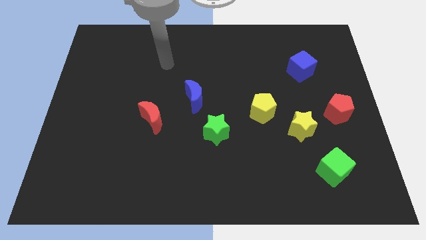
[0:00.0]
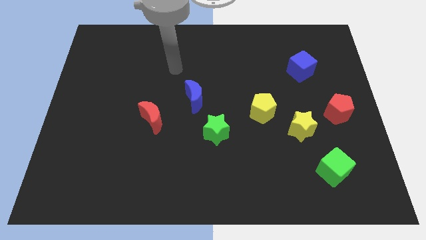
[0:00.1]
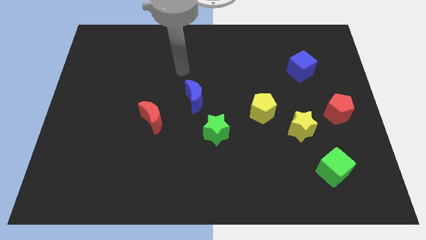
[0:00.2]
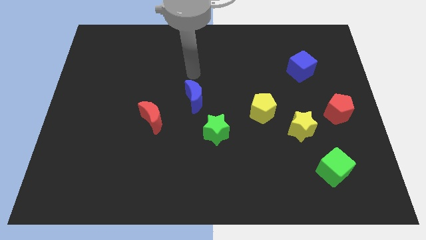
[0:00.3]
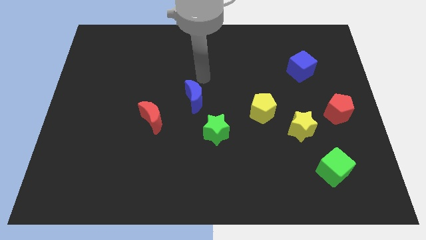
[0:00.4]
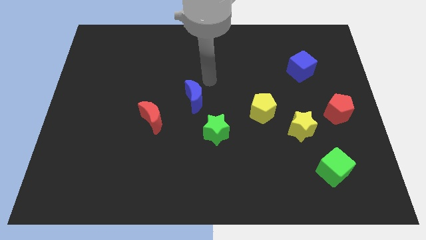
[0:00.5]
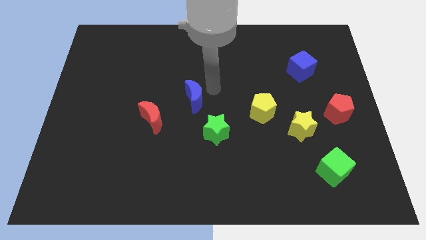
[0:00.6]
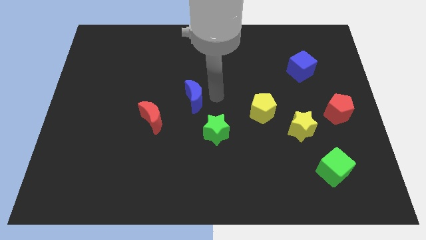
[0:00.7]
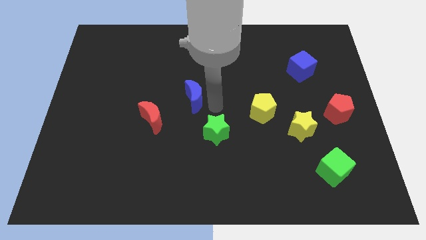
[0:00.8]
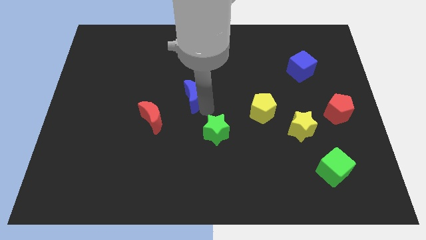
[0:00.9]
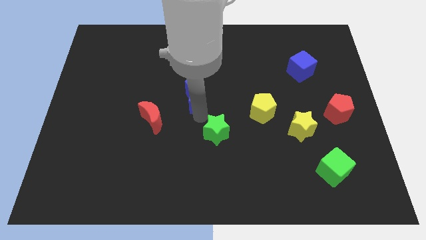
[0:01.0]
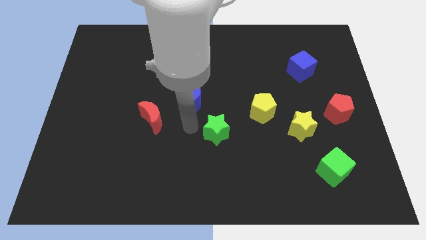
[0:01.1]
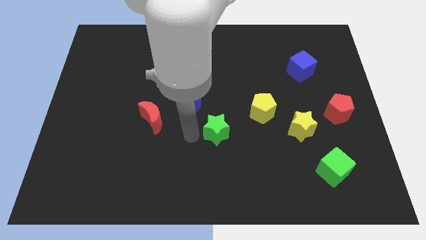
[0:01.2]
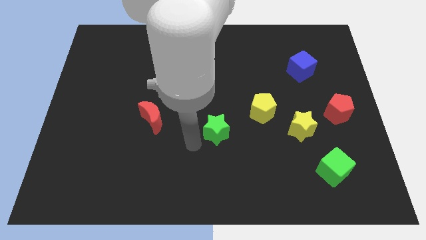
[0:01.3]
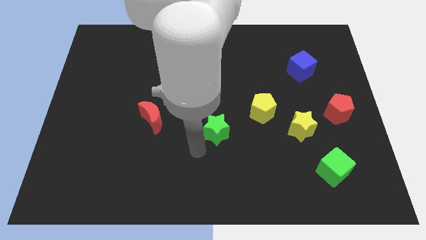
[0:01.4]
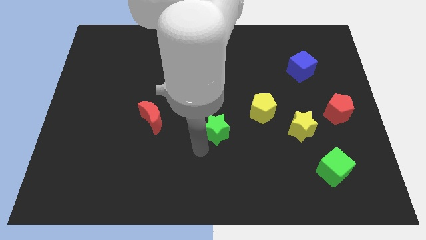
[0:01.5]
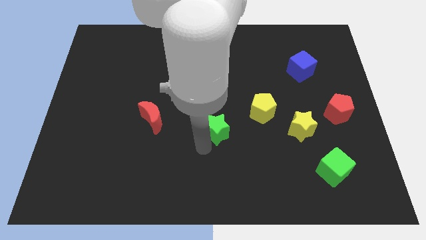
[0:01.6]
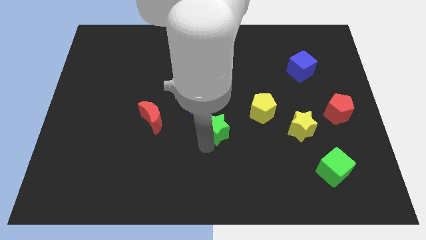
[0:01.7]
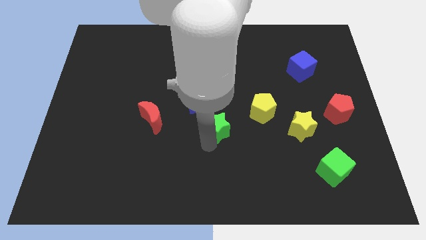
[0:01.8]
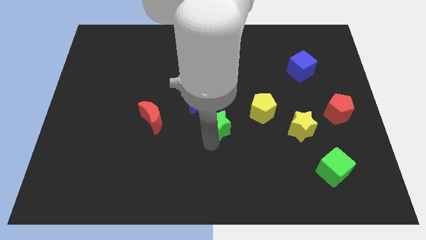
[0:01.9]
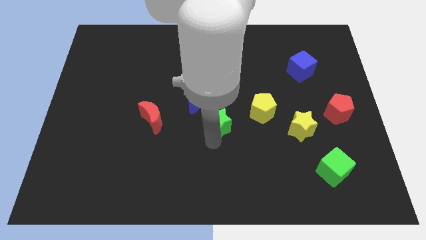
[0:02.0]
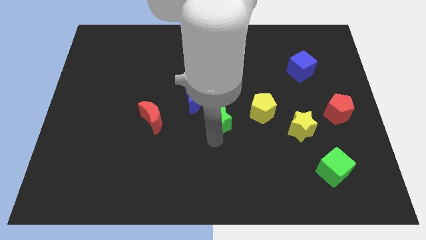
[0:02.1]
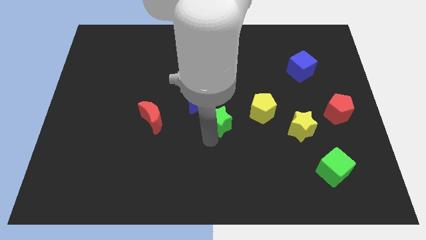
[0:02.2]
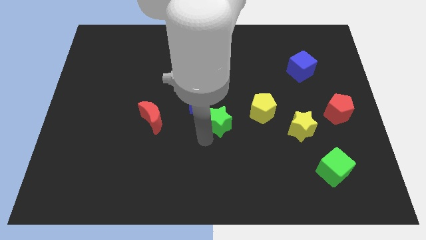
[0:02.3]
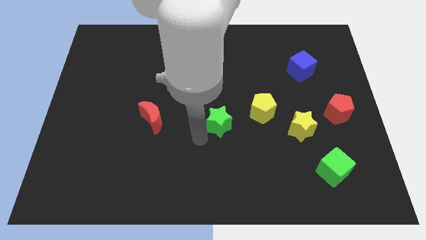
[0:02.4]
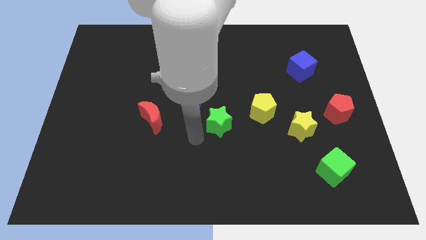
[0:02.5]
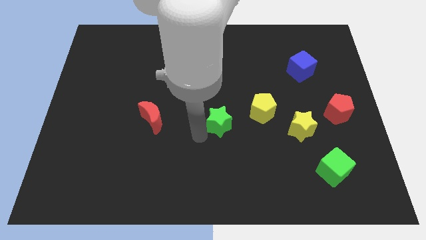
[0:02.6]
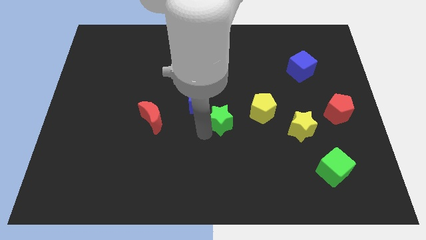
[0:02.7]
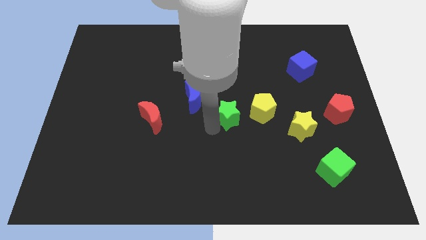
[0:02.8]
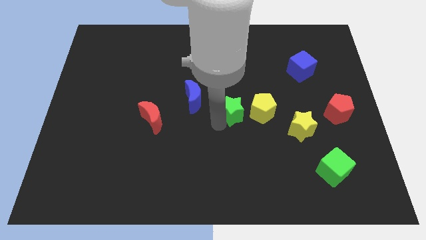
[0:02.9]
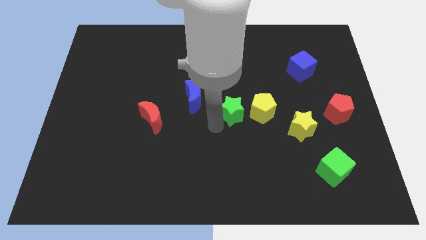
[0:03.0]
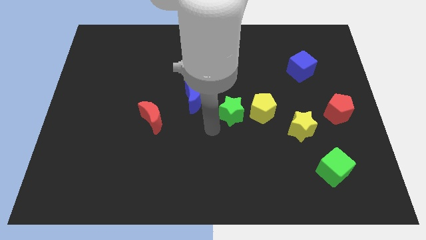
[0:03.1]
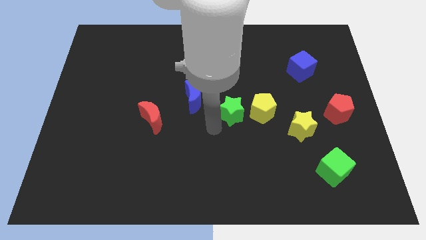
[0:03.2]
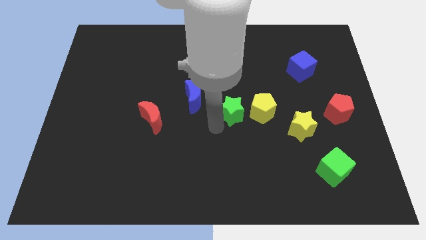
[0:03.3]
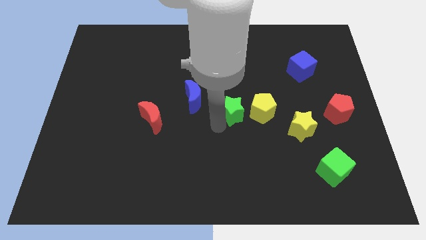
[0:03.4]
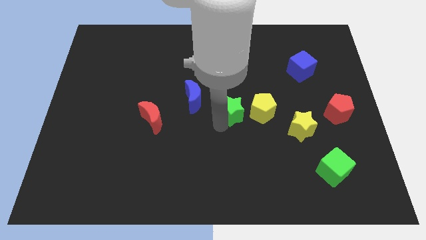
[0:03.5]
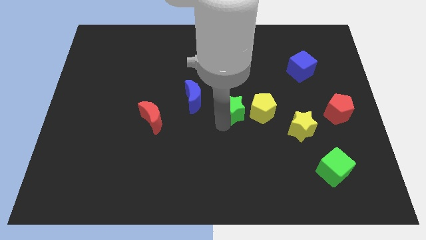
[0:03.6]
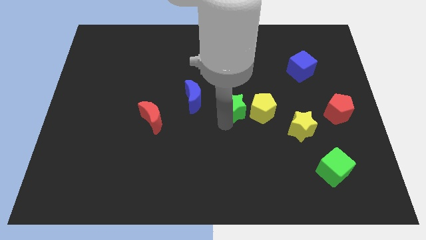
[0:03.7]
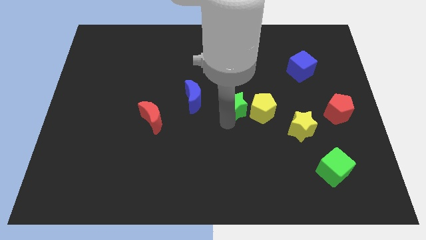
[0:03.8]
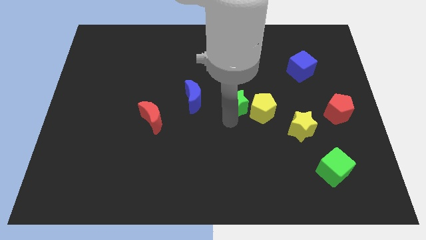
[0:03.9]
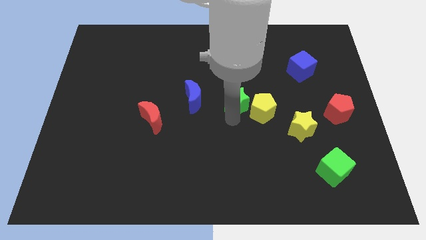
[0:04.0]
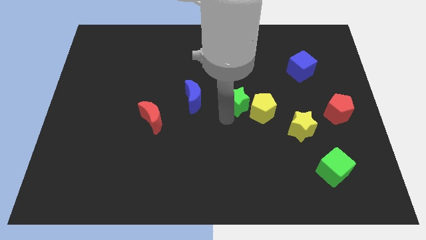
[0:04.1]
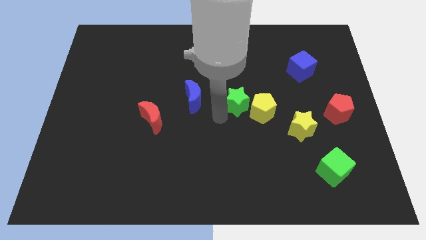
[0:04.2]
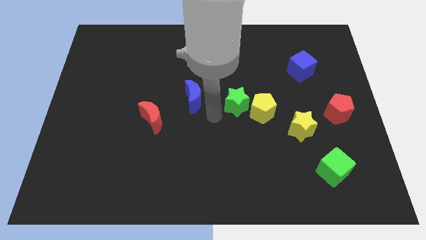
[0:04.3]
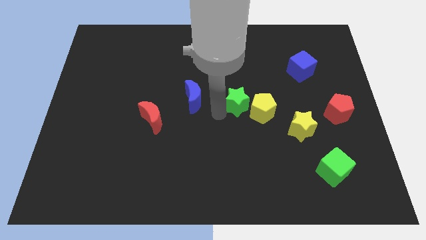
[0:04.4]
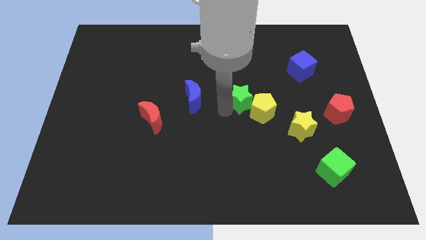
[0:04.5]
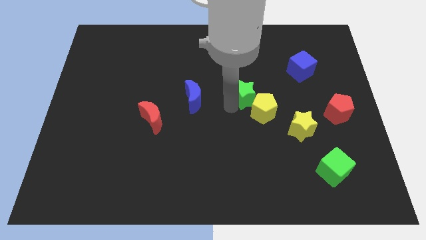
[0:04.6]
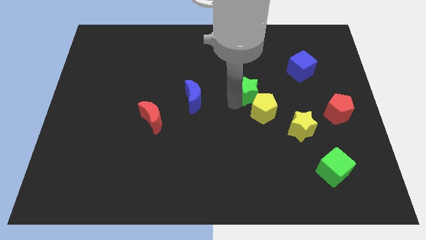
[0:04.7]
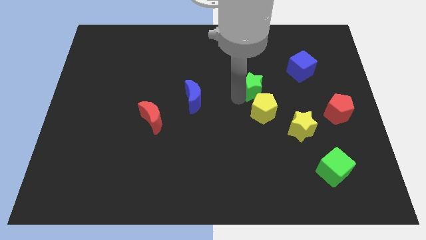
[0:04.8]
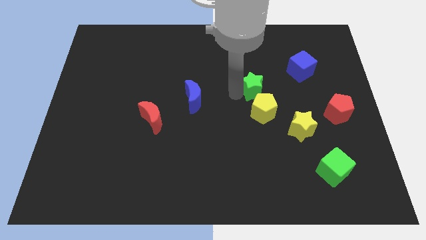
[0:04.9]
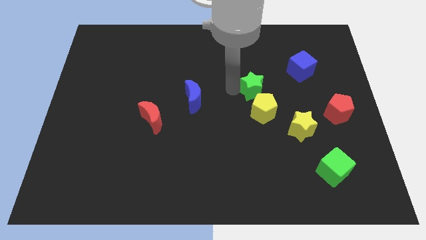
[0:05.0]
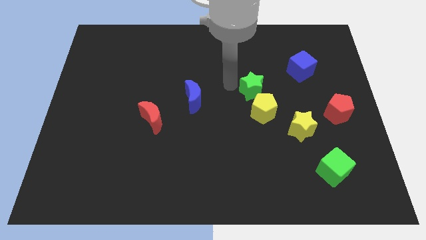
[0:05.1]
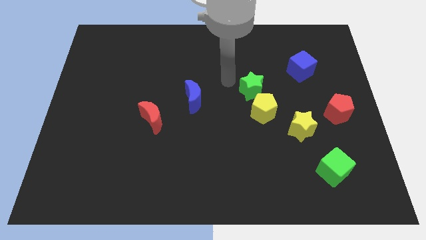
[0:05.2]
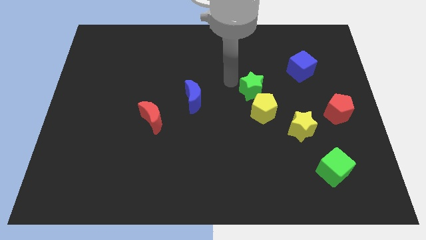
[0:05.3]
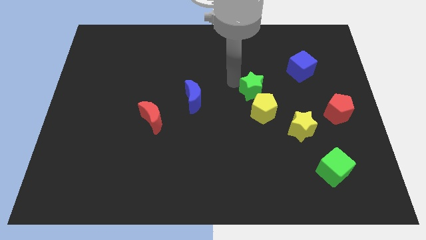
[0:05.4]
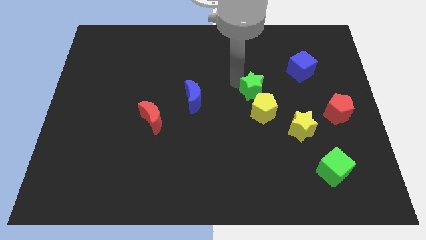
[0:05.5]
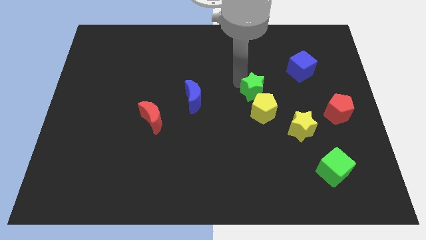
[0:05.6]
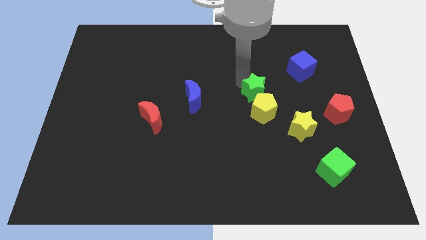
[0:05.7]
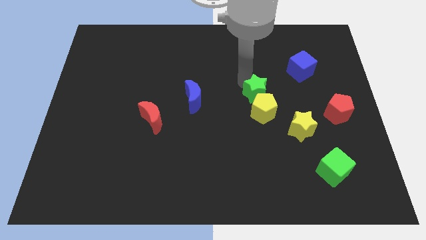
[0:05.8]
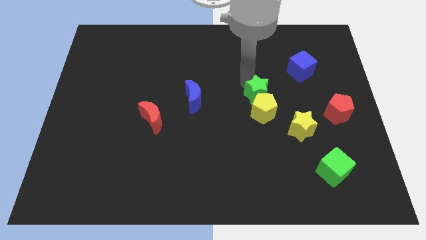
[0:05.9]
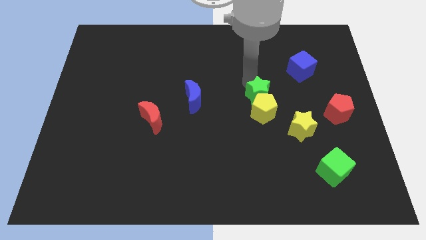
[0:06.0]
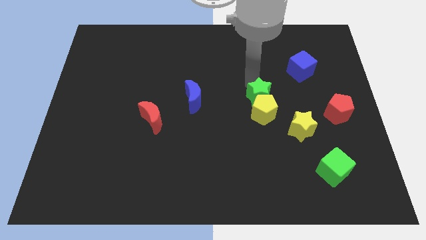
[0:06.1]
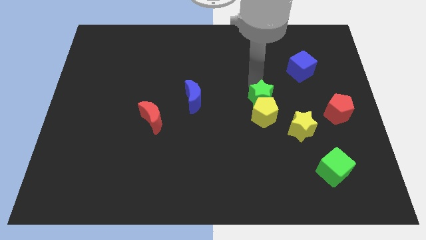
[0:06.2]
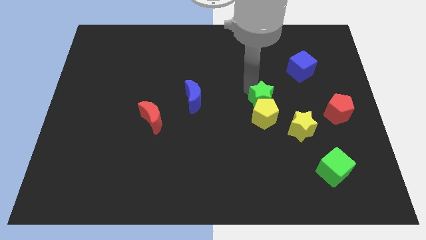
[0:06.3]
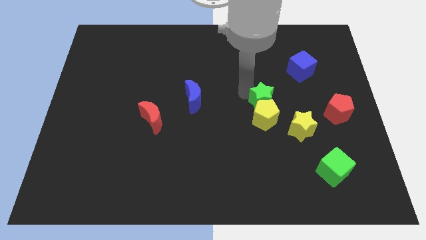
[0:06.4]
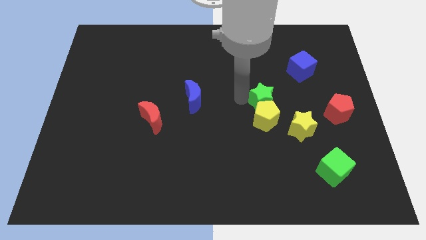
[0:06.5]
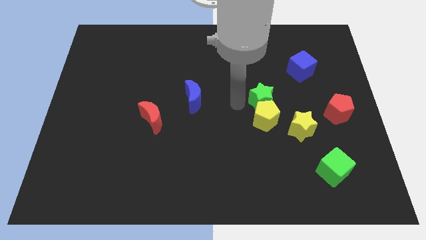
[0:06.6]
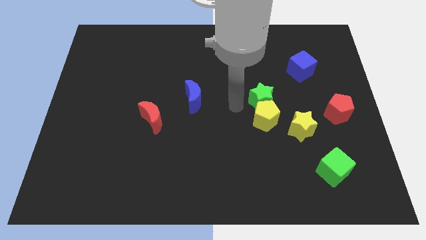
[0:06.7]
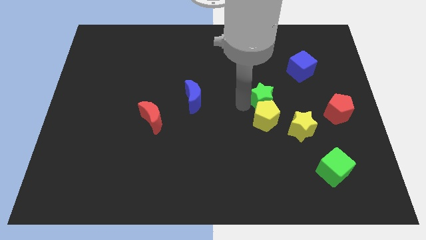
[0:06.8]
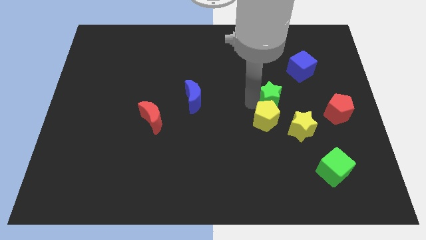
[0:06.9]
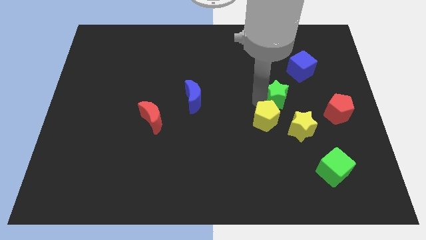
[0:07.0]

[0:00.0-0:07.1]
push the green star to the top side of the yellow star
